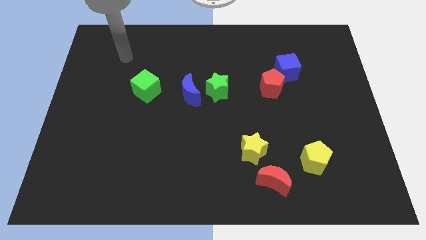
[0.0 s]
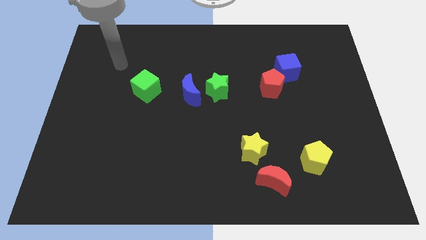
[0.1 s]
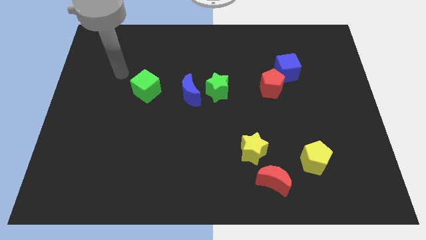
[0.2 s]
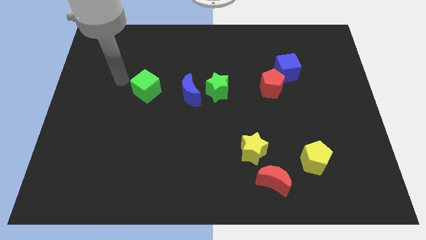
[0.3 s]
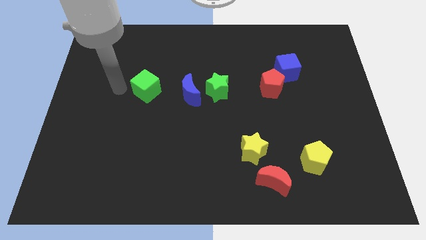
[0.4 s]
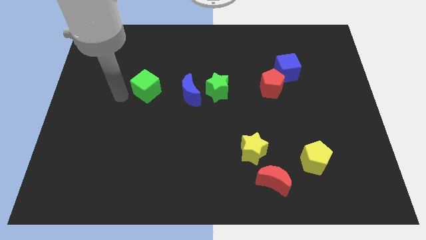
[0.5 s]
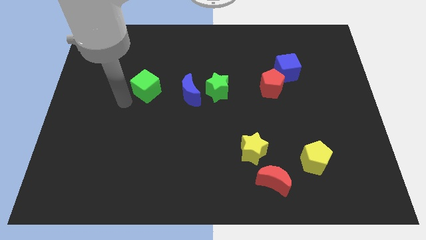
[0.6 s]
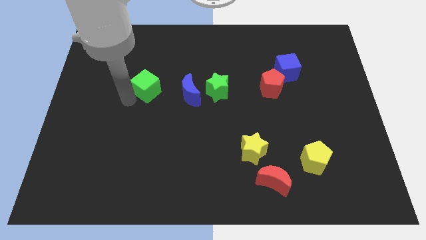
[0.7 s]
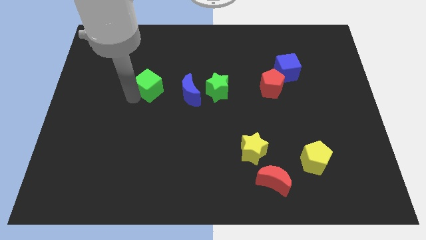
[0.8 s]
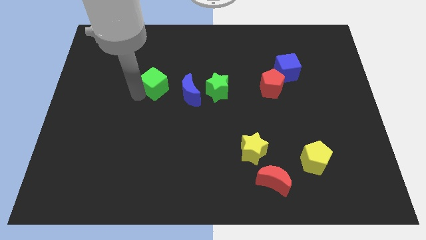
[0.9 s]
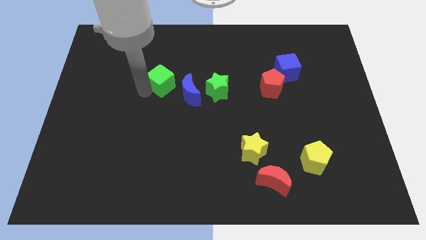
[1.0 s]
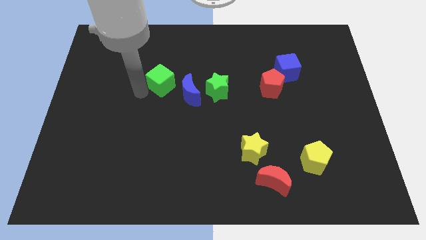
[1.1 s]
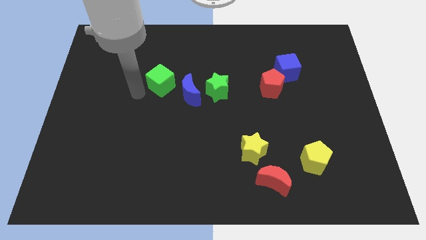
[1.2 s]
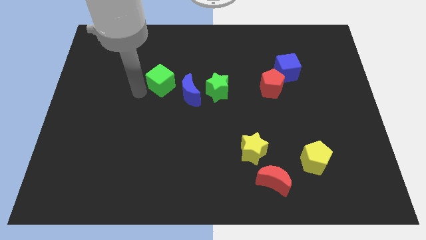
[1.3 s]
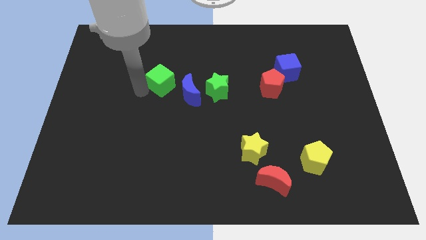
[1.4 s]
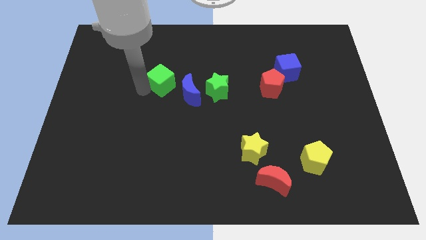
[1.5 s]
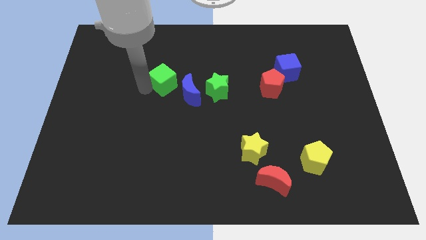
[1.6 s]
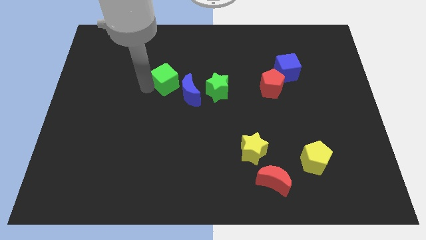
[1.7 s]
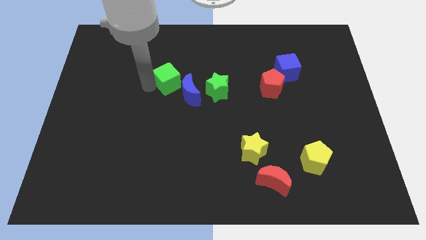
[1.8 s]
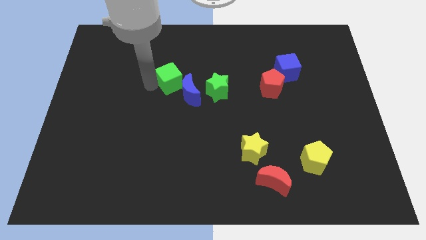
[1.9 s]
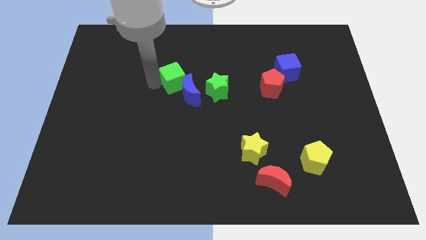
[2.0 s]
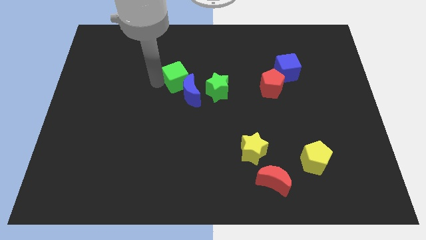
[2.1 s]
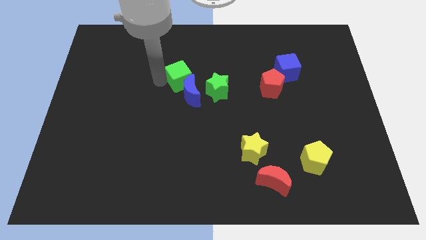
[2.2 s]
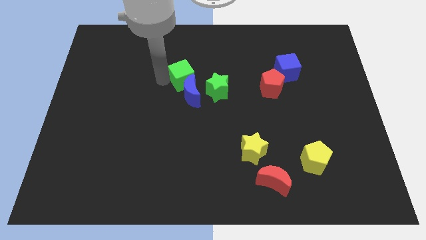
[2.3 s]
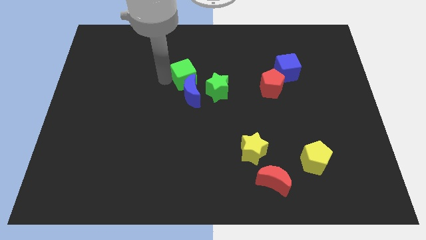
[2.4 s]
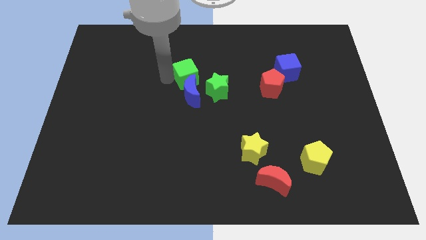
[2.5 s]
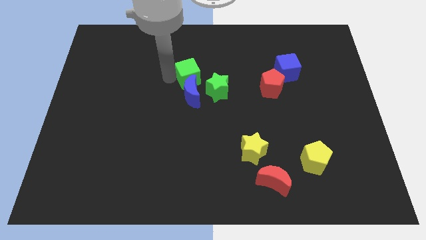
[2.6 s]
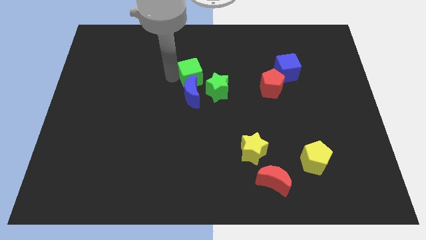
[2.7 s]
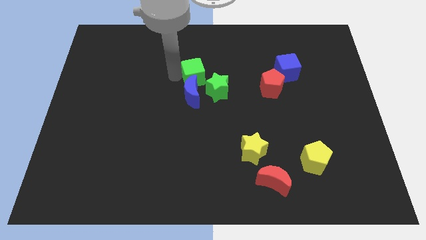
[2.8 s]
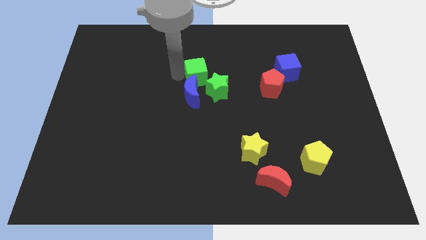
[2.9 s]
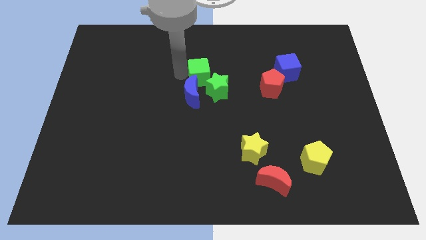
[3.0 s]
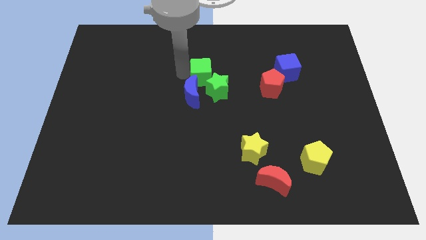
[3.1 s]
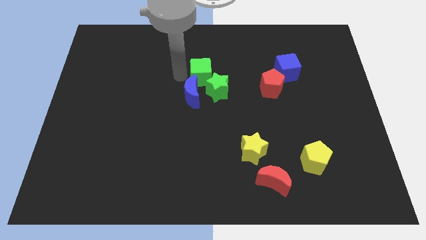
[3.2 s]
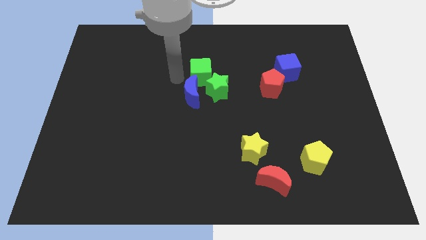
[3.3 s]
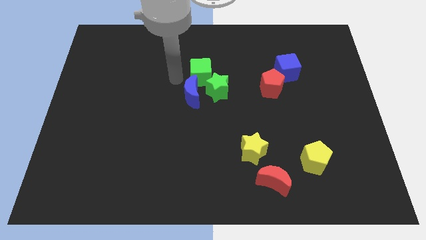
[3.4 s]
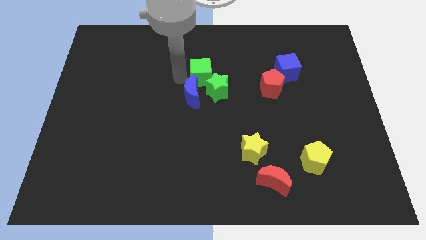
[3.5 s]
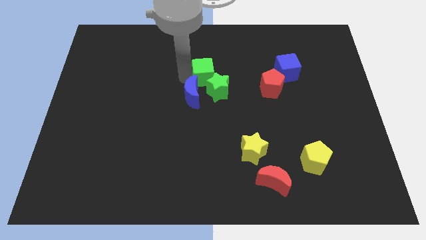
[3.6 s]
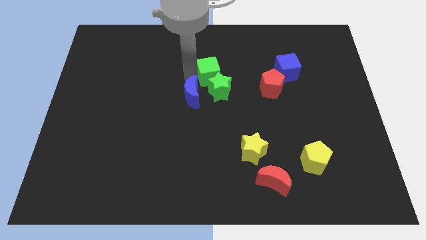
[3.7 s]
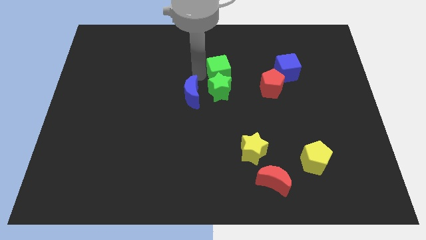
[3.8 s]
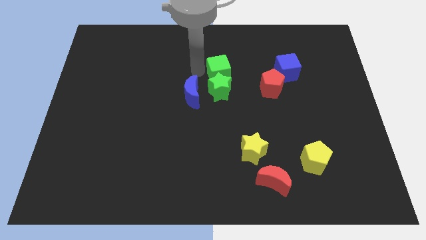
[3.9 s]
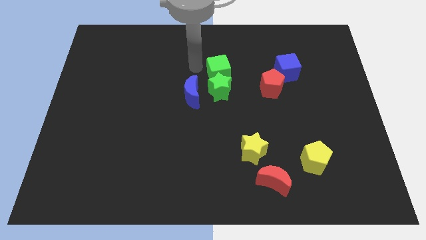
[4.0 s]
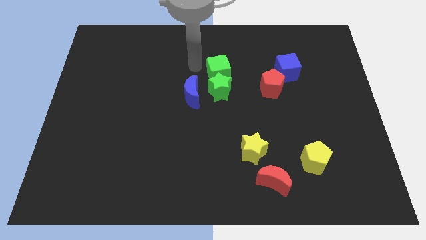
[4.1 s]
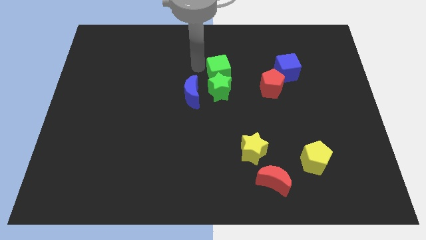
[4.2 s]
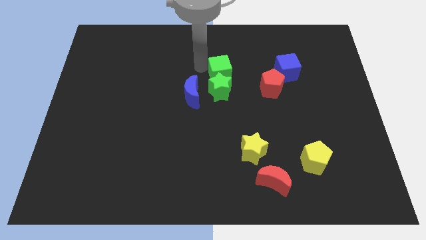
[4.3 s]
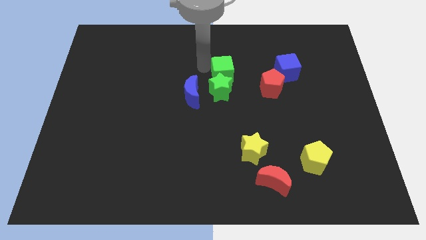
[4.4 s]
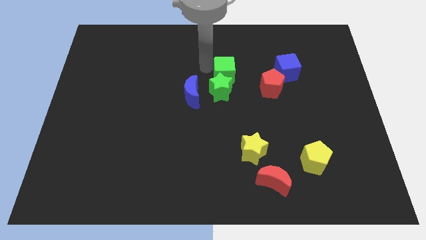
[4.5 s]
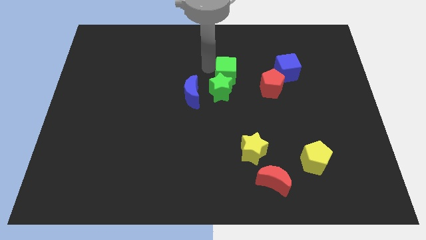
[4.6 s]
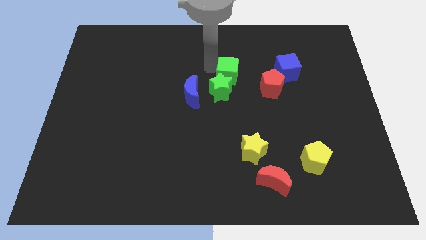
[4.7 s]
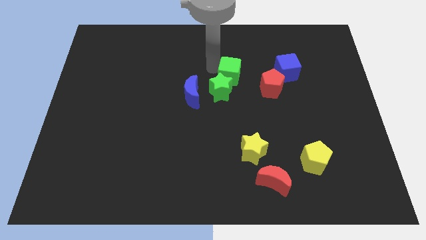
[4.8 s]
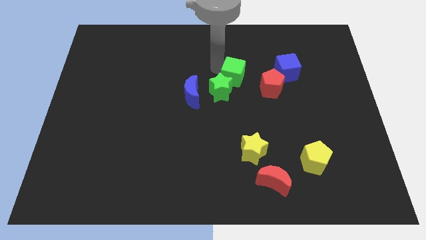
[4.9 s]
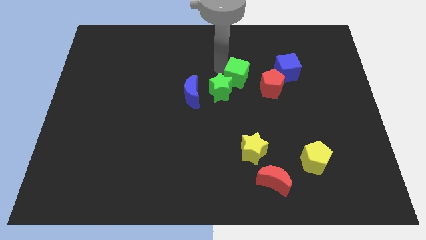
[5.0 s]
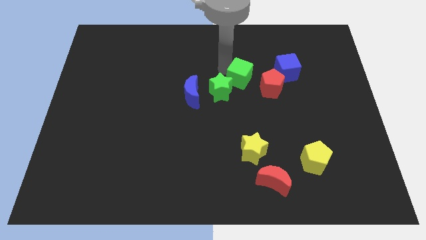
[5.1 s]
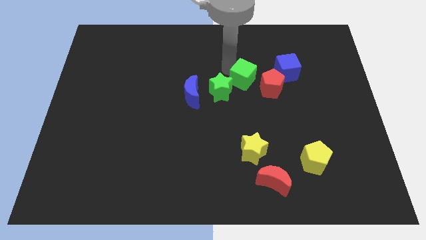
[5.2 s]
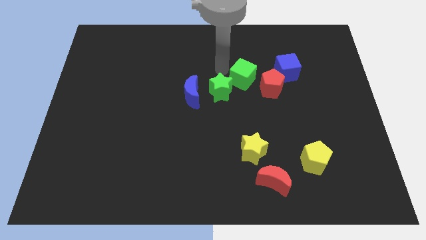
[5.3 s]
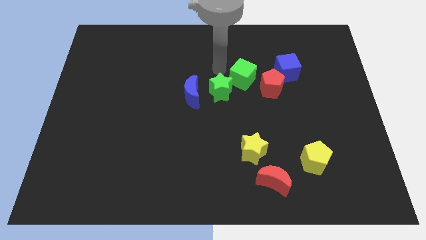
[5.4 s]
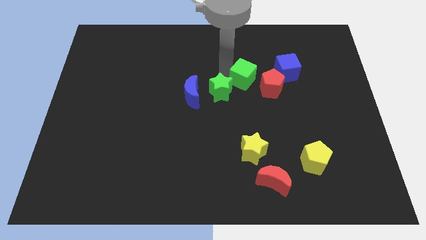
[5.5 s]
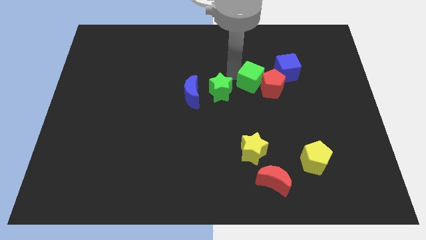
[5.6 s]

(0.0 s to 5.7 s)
push the green cube towards the red pentagon

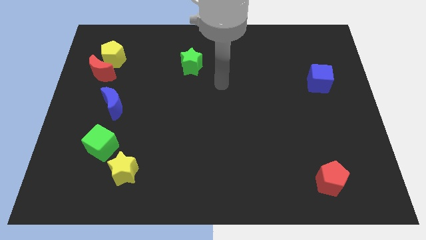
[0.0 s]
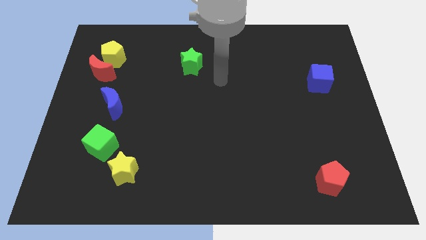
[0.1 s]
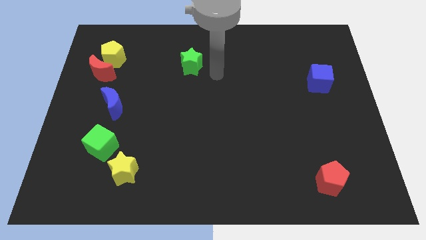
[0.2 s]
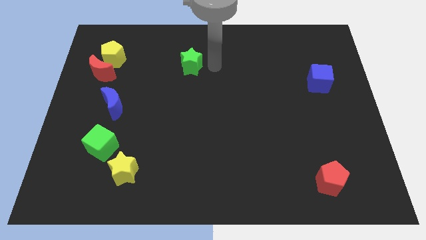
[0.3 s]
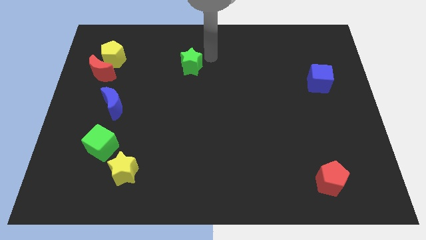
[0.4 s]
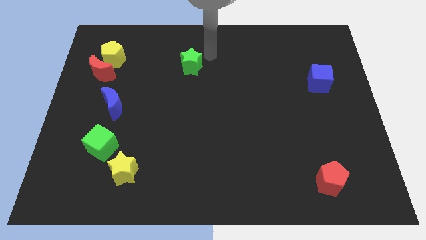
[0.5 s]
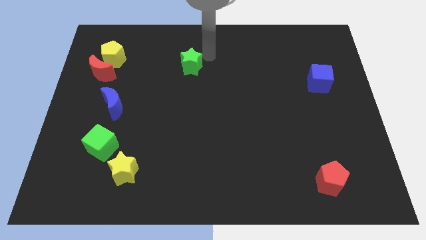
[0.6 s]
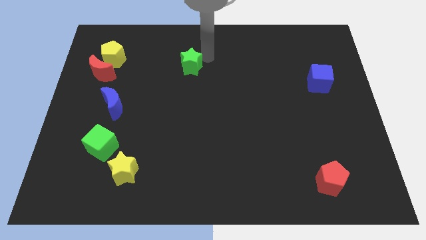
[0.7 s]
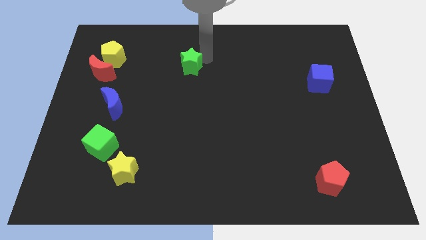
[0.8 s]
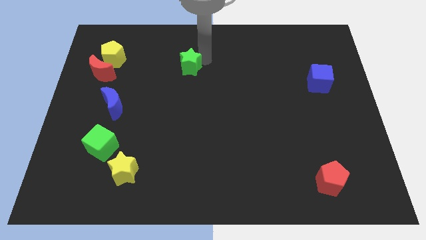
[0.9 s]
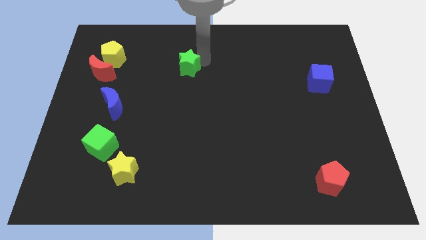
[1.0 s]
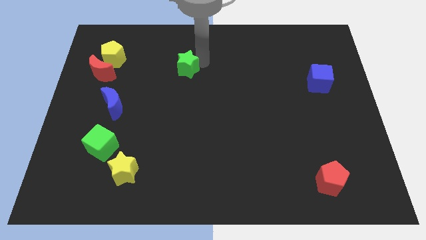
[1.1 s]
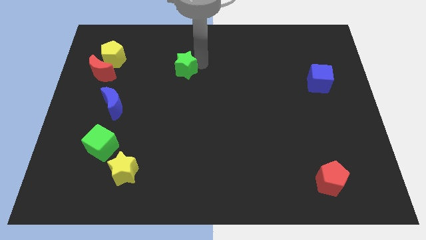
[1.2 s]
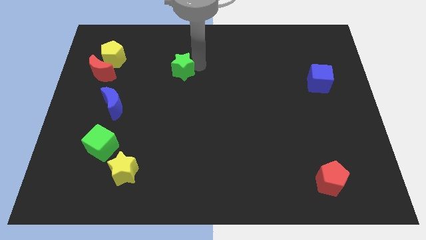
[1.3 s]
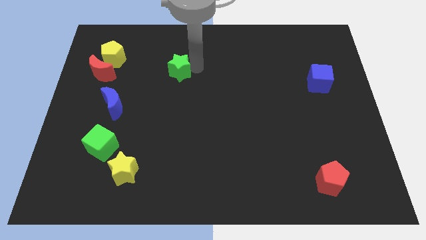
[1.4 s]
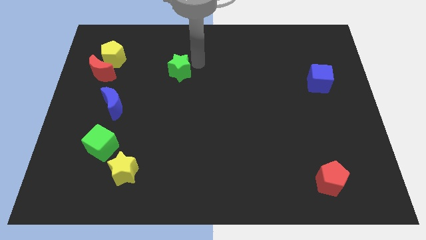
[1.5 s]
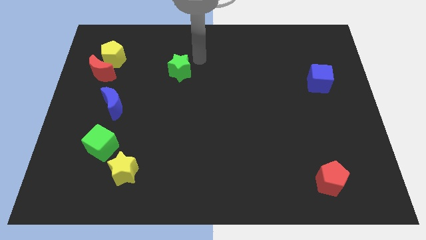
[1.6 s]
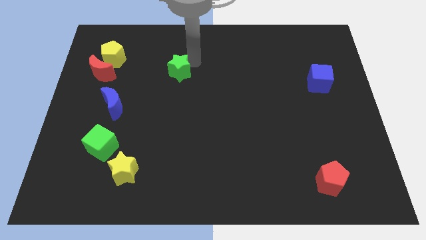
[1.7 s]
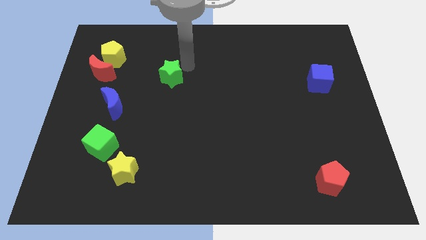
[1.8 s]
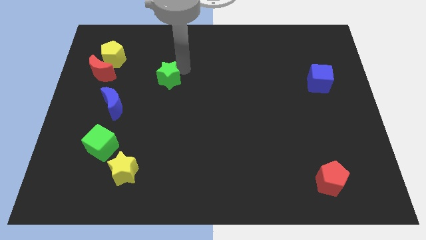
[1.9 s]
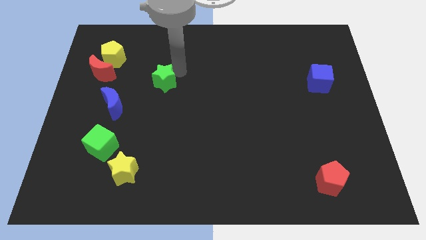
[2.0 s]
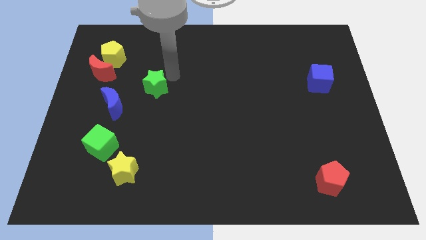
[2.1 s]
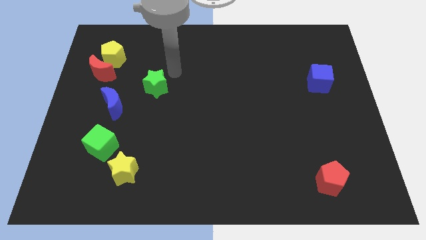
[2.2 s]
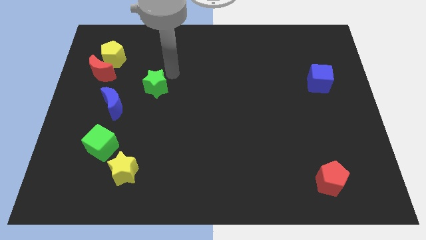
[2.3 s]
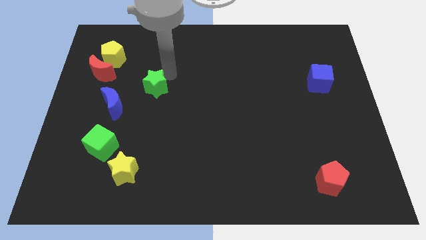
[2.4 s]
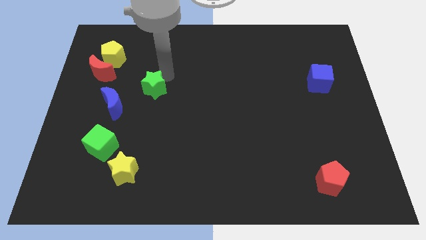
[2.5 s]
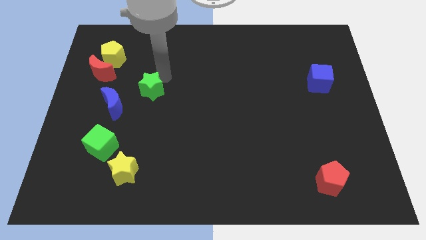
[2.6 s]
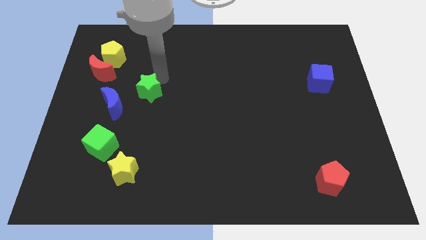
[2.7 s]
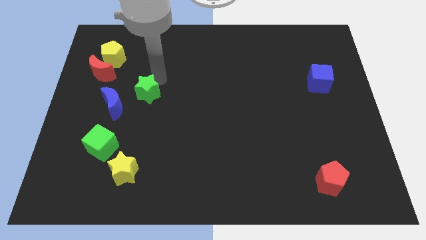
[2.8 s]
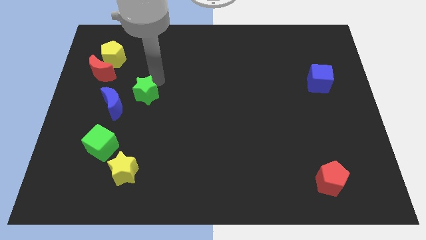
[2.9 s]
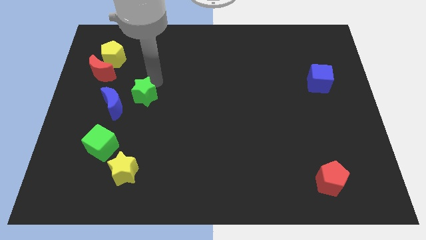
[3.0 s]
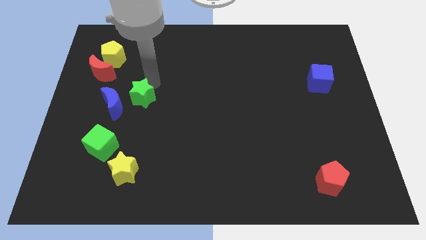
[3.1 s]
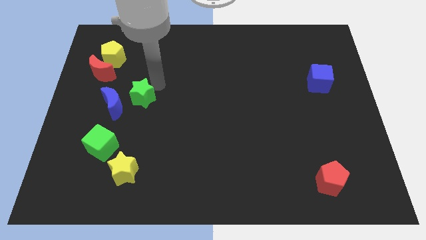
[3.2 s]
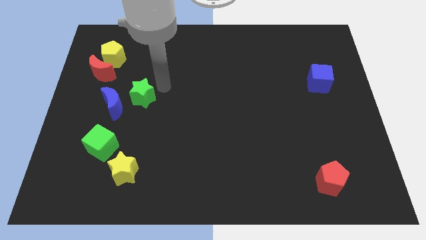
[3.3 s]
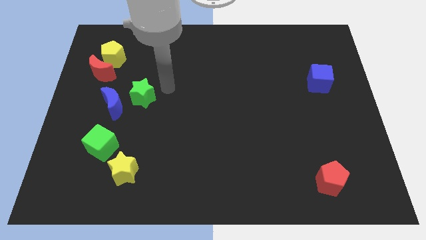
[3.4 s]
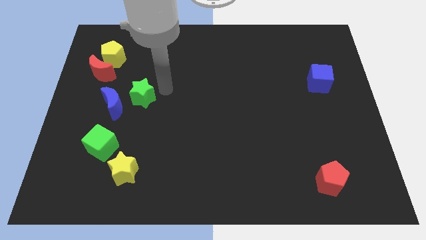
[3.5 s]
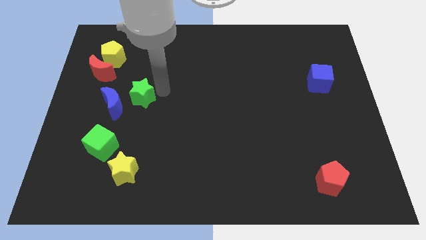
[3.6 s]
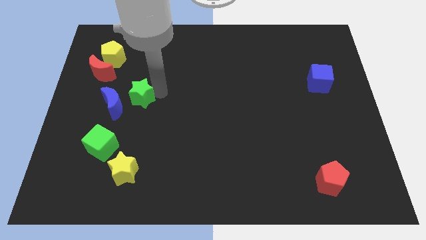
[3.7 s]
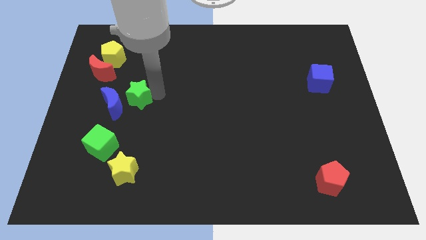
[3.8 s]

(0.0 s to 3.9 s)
push the green star to the blue moon
